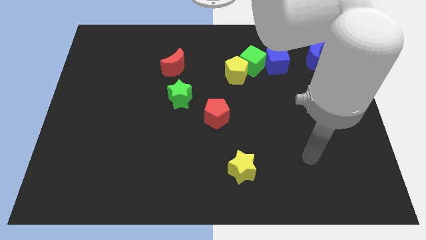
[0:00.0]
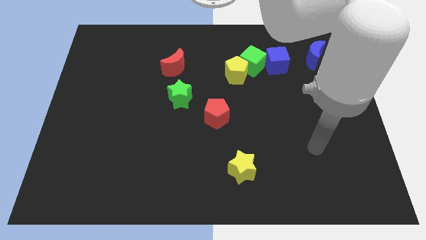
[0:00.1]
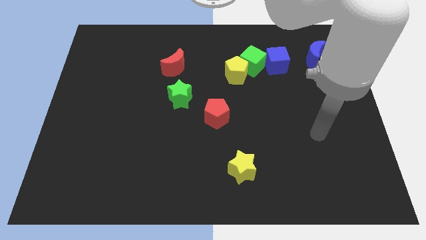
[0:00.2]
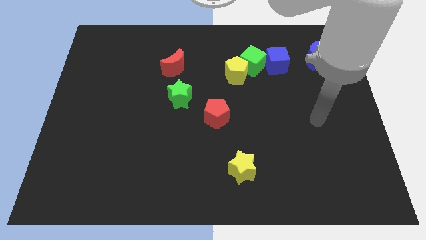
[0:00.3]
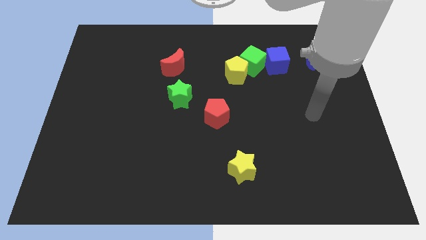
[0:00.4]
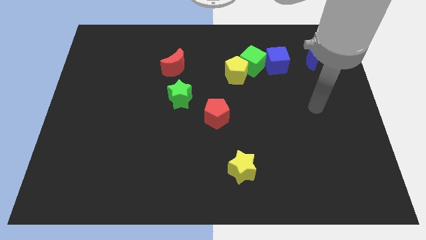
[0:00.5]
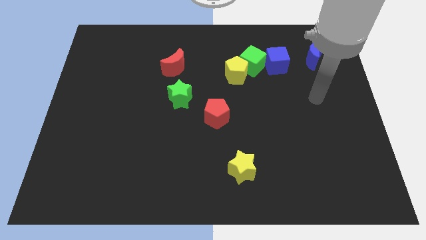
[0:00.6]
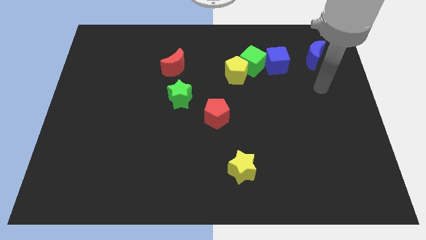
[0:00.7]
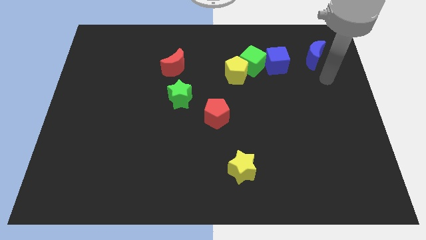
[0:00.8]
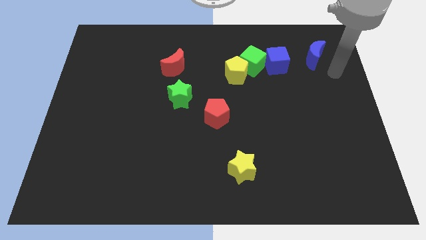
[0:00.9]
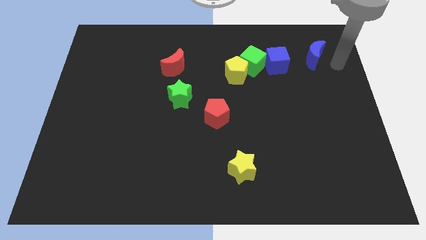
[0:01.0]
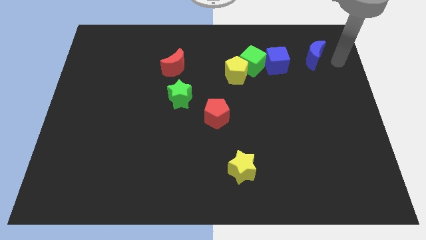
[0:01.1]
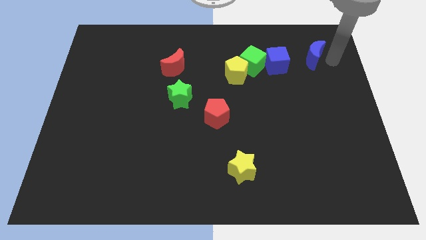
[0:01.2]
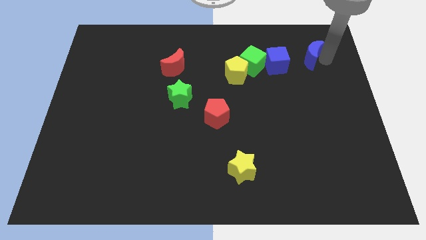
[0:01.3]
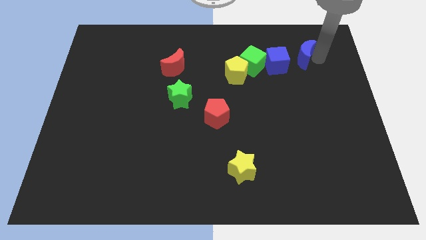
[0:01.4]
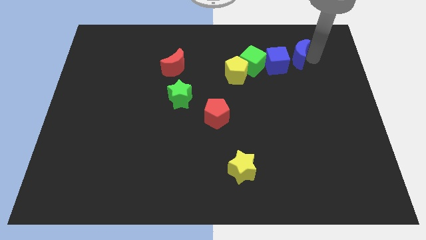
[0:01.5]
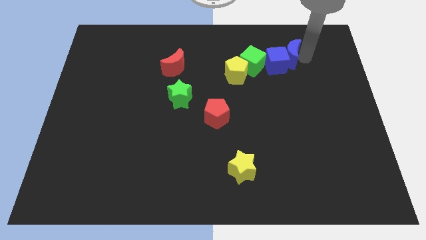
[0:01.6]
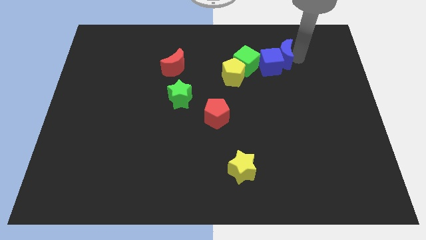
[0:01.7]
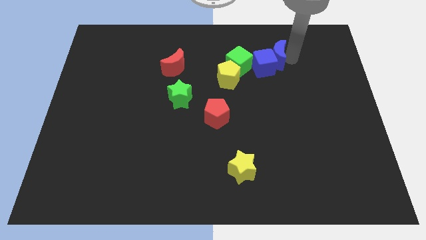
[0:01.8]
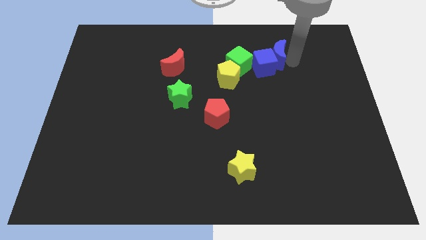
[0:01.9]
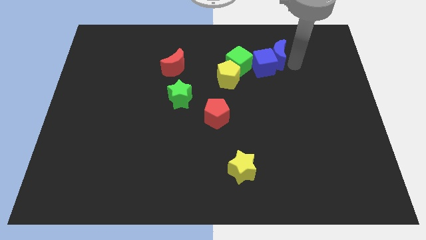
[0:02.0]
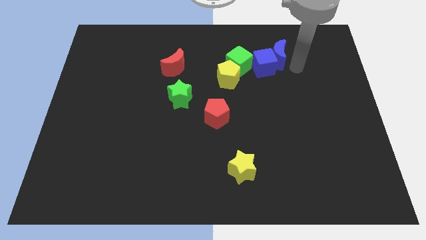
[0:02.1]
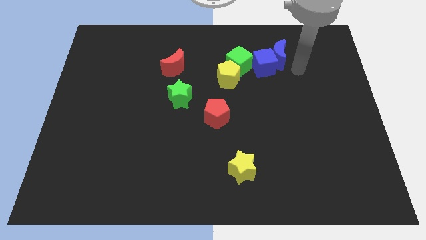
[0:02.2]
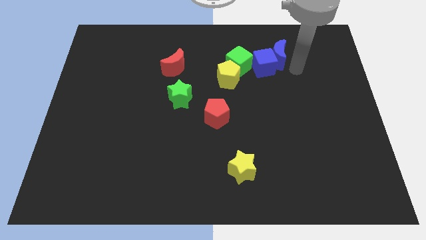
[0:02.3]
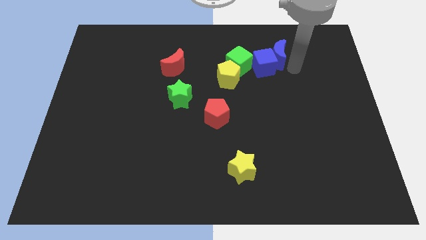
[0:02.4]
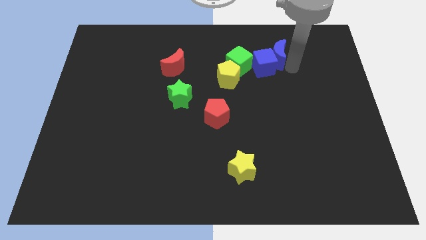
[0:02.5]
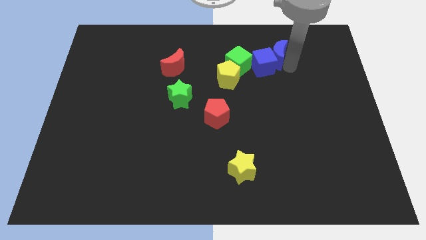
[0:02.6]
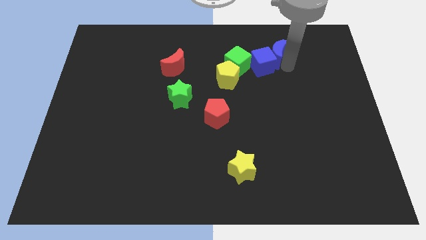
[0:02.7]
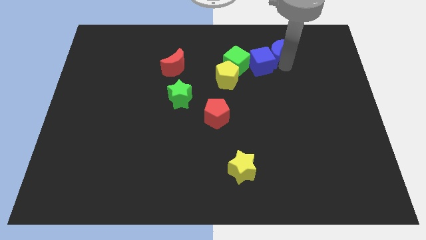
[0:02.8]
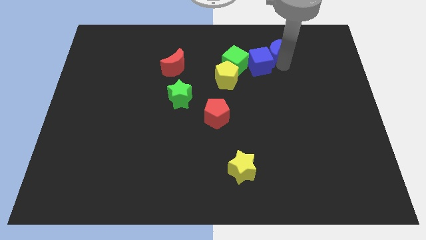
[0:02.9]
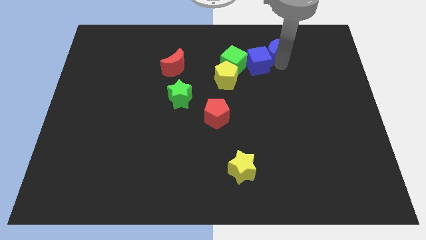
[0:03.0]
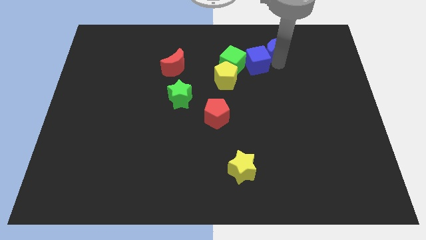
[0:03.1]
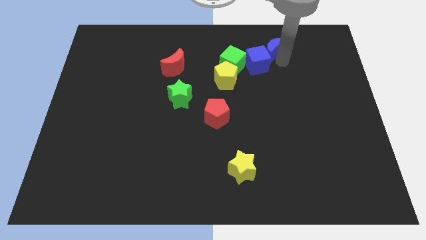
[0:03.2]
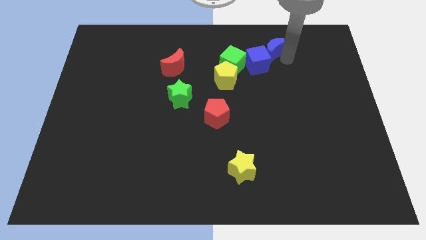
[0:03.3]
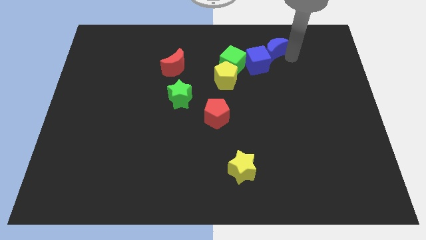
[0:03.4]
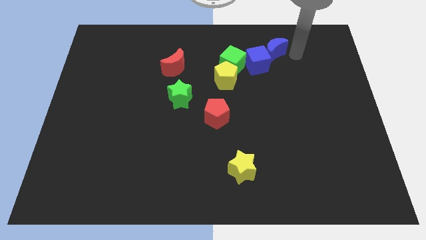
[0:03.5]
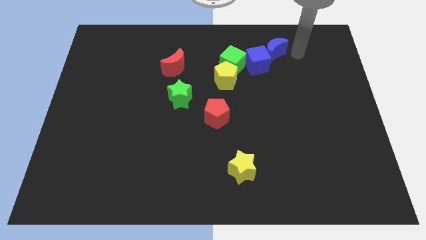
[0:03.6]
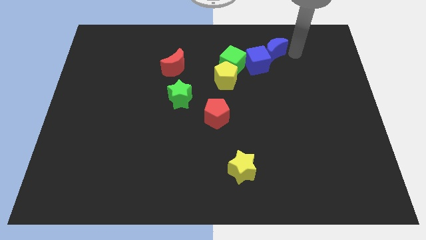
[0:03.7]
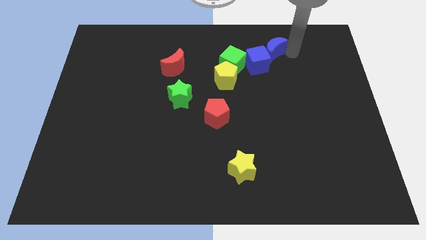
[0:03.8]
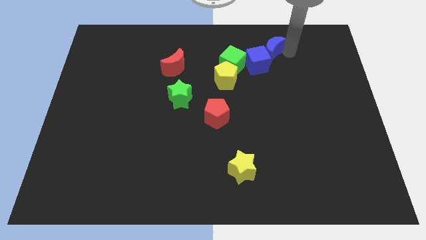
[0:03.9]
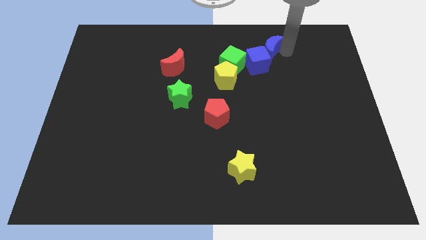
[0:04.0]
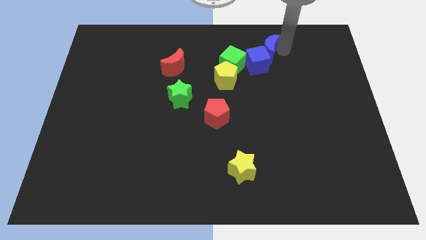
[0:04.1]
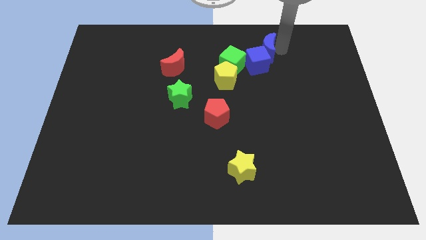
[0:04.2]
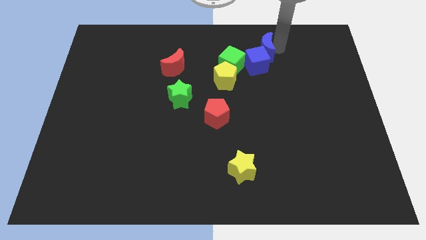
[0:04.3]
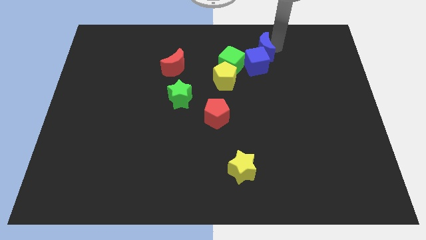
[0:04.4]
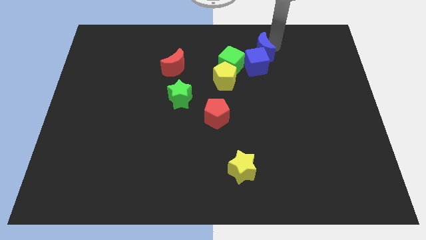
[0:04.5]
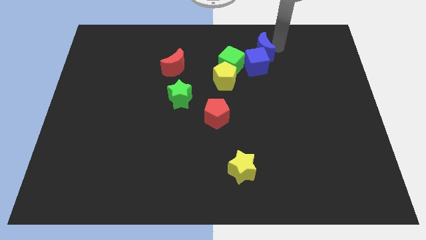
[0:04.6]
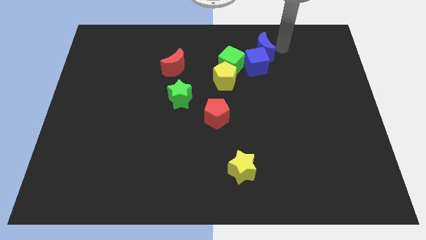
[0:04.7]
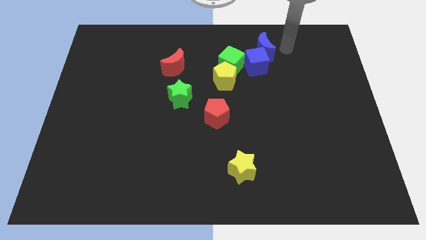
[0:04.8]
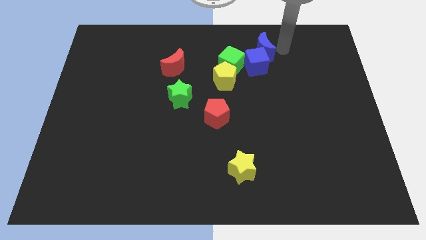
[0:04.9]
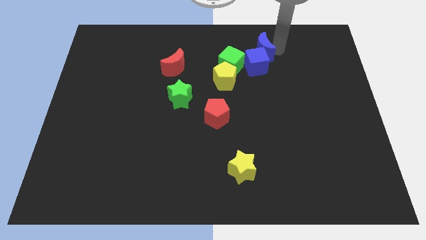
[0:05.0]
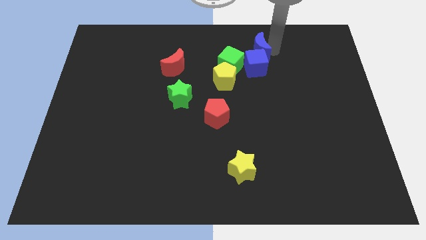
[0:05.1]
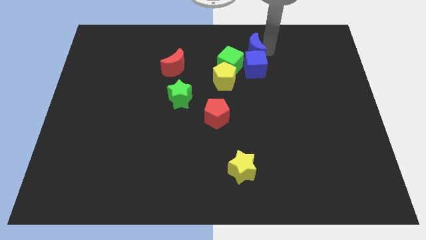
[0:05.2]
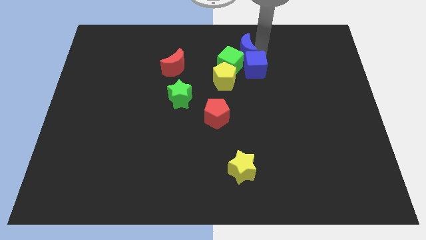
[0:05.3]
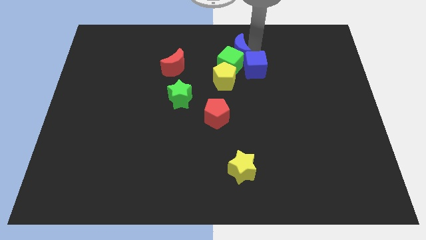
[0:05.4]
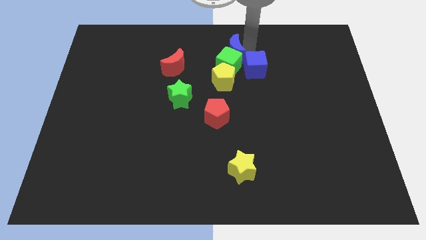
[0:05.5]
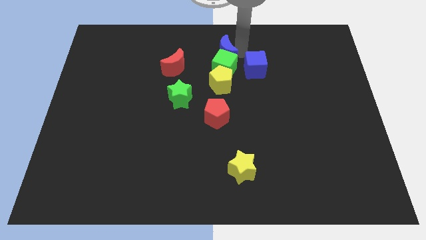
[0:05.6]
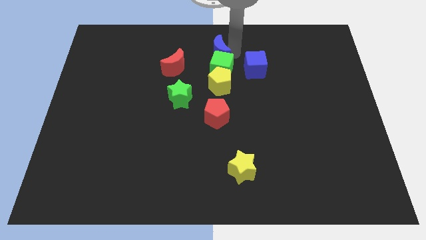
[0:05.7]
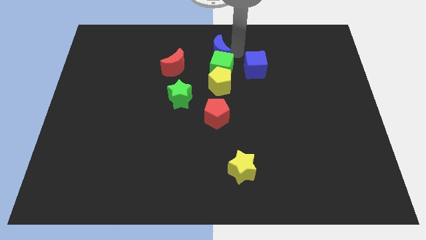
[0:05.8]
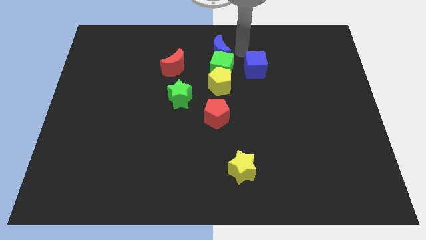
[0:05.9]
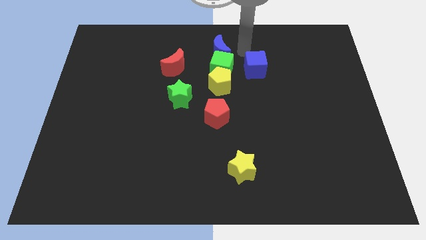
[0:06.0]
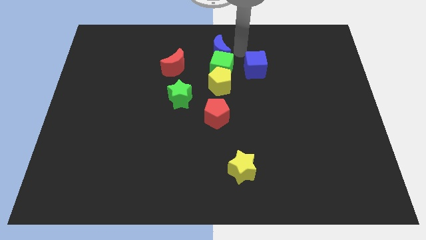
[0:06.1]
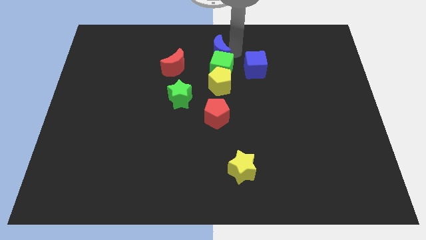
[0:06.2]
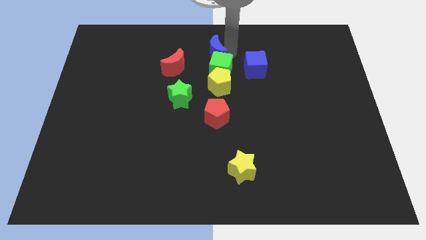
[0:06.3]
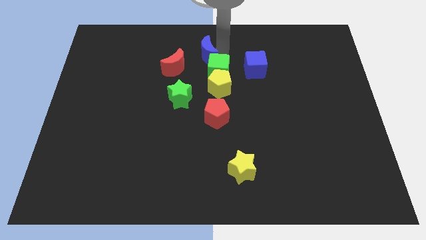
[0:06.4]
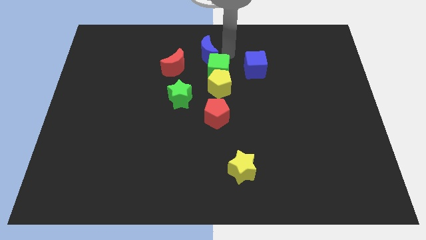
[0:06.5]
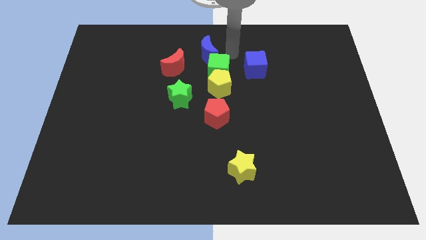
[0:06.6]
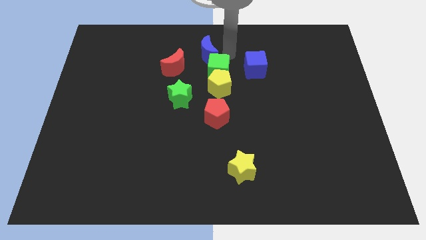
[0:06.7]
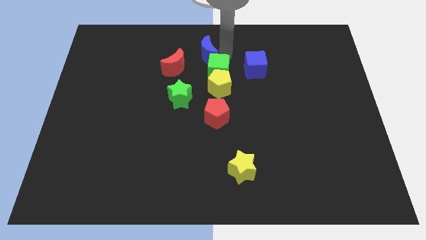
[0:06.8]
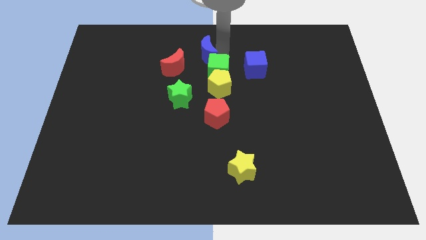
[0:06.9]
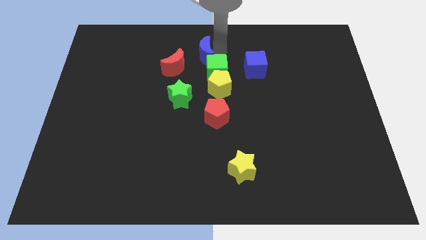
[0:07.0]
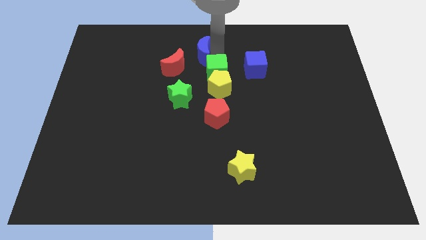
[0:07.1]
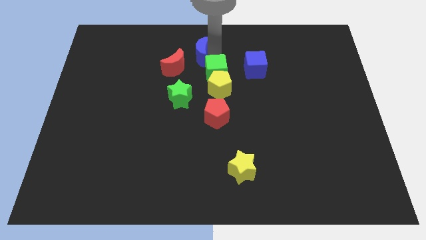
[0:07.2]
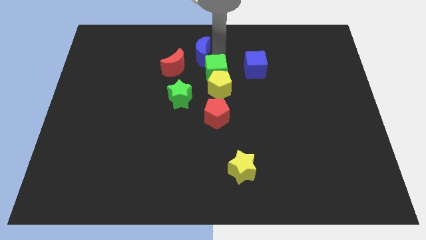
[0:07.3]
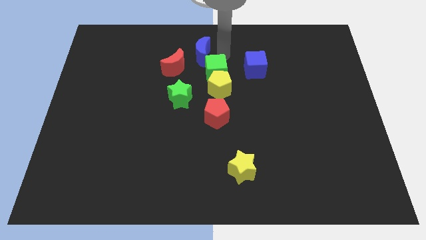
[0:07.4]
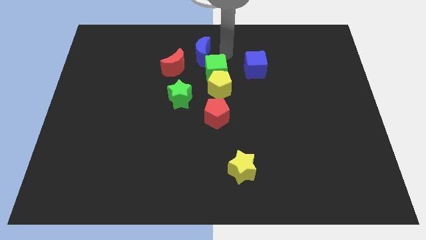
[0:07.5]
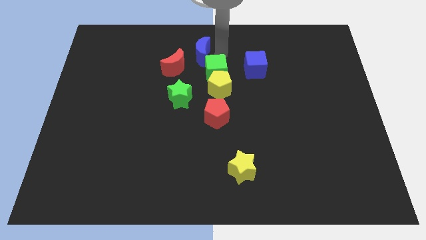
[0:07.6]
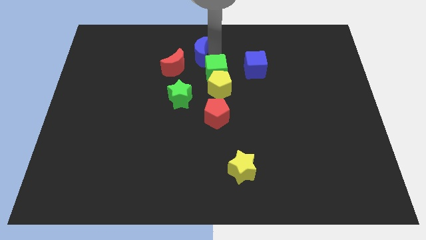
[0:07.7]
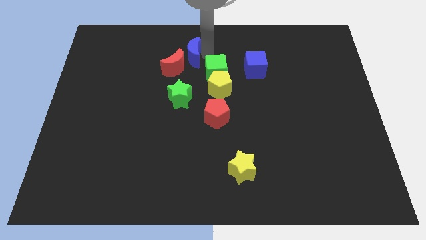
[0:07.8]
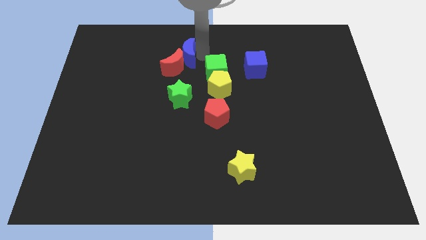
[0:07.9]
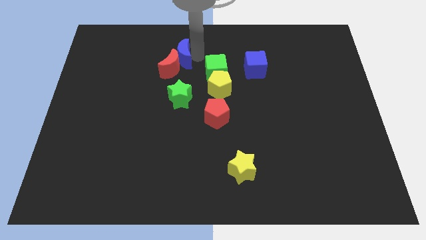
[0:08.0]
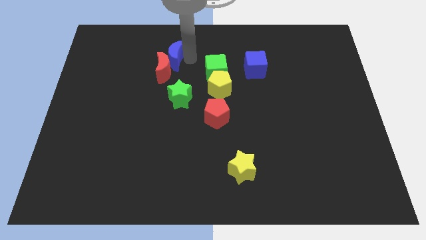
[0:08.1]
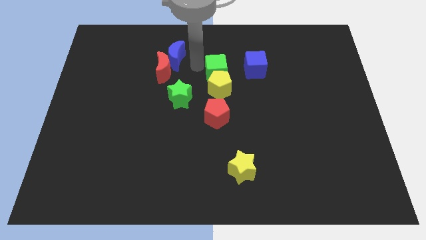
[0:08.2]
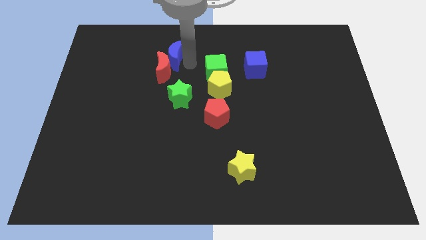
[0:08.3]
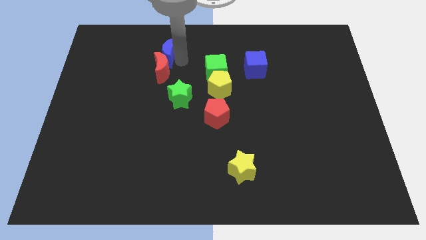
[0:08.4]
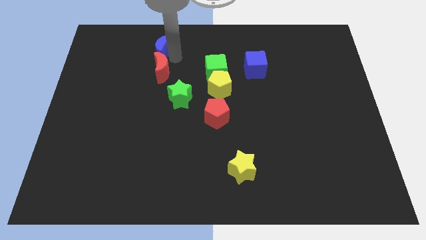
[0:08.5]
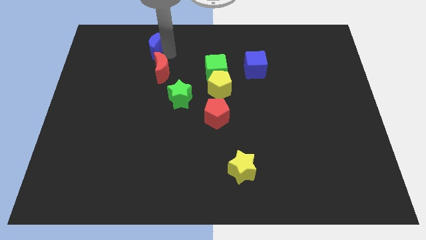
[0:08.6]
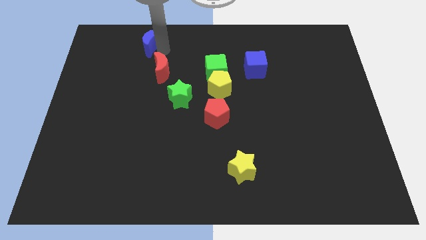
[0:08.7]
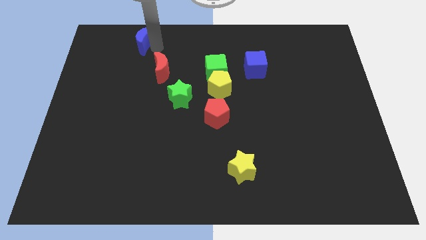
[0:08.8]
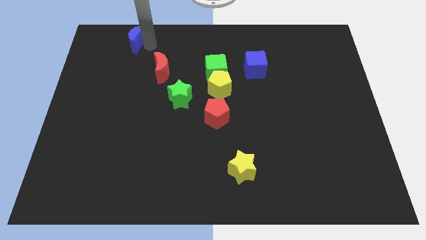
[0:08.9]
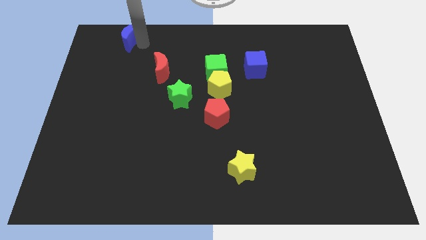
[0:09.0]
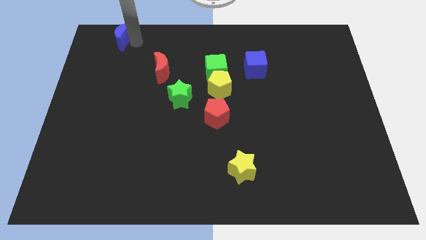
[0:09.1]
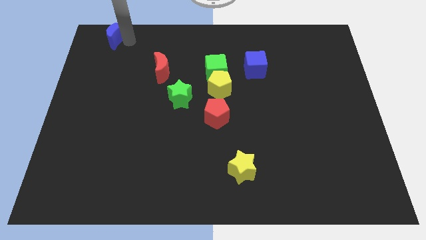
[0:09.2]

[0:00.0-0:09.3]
slide the blue moon to the top left of the board
